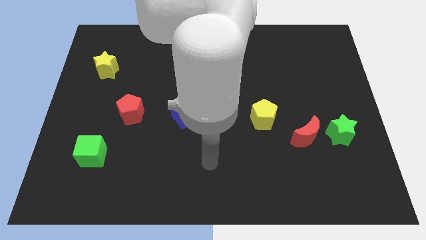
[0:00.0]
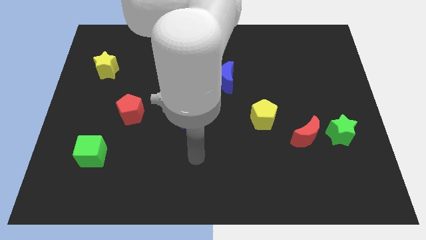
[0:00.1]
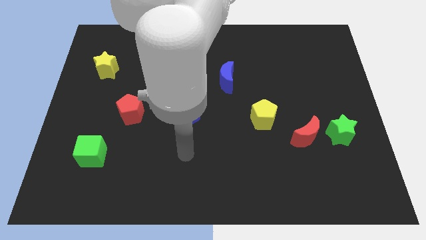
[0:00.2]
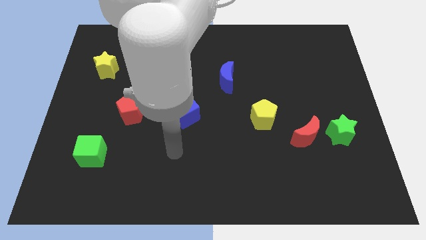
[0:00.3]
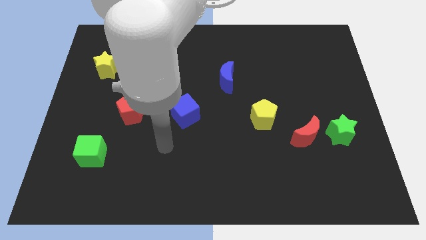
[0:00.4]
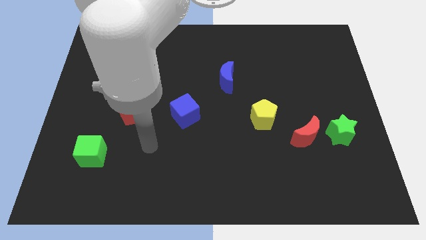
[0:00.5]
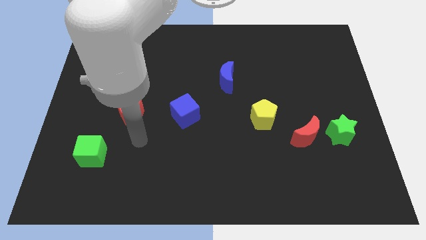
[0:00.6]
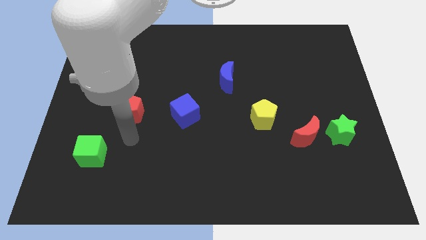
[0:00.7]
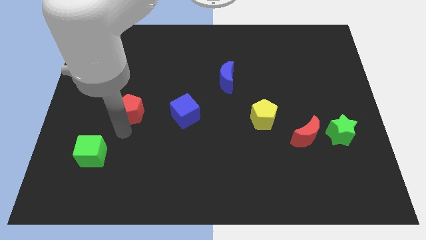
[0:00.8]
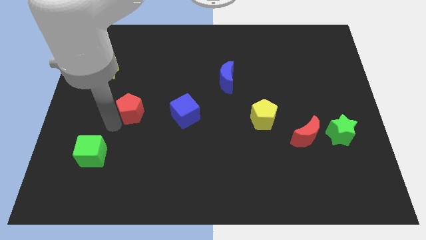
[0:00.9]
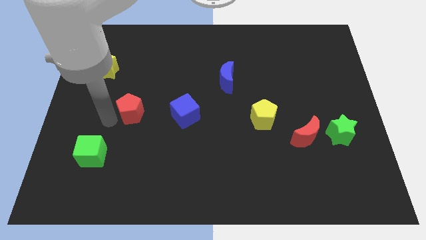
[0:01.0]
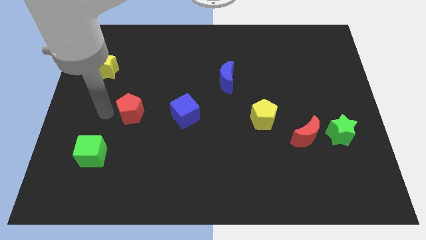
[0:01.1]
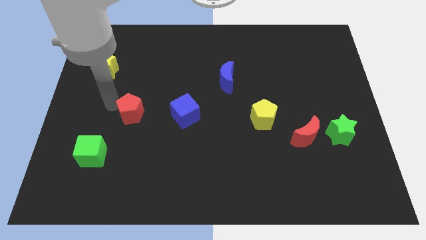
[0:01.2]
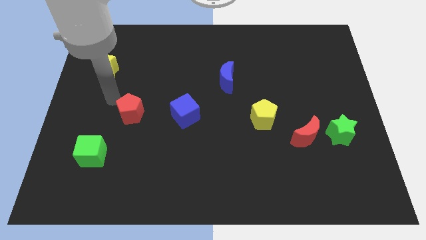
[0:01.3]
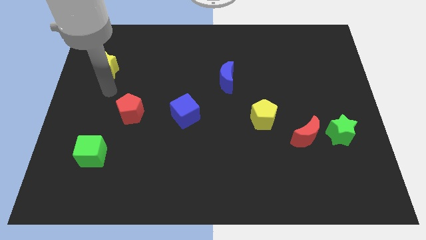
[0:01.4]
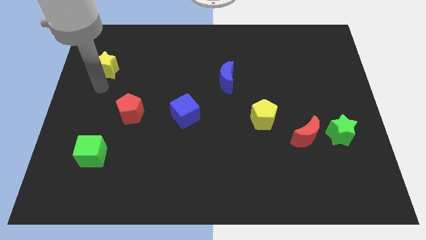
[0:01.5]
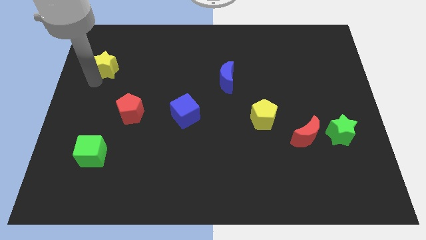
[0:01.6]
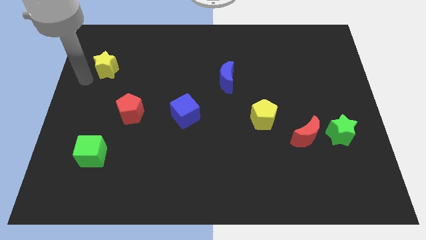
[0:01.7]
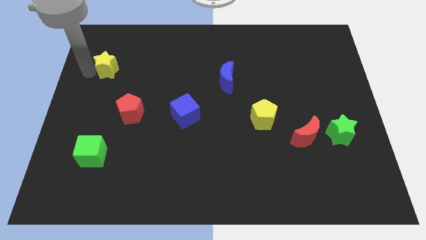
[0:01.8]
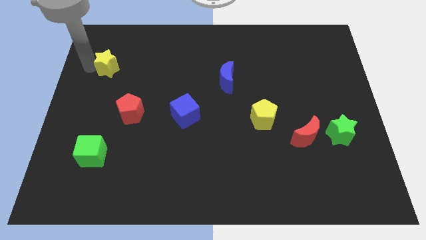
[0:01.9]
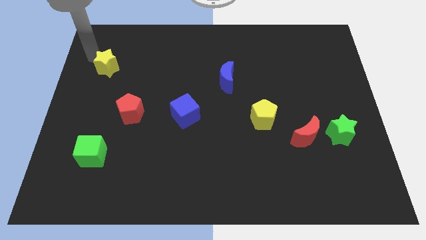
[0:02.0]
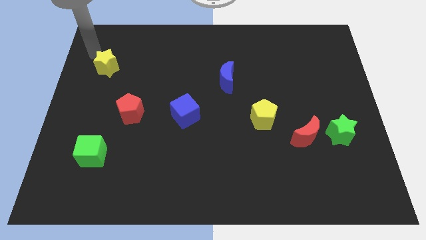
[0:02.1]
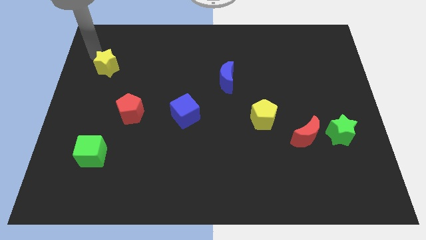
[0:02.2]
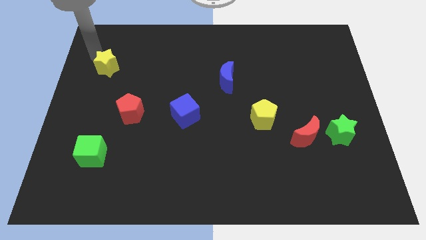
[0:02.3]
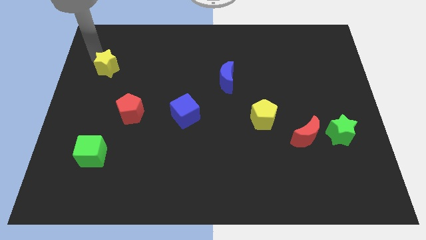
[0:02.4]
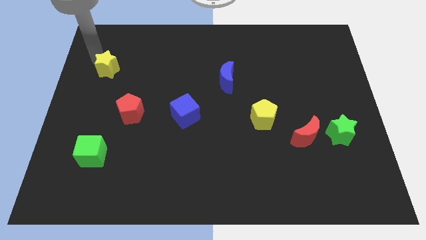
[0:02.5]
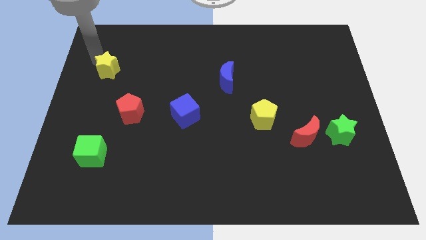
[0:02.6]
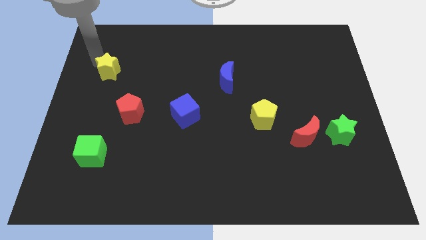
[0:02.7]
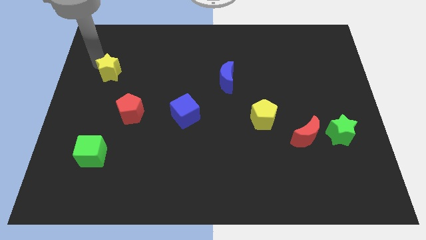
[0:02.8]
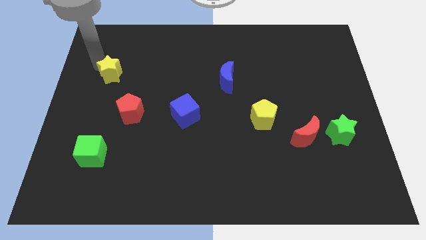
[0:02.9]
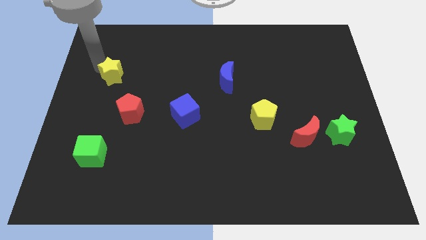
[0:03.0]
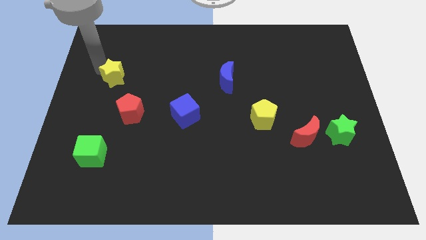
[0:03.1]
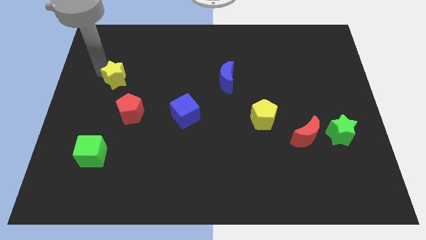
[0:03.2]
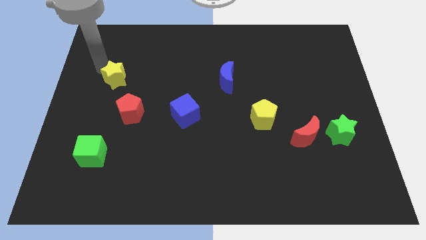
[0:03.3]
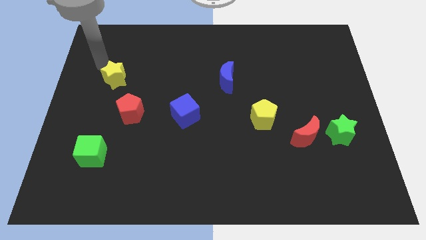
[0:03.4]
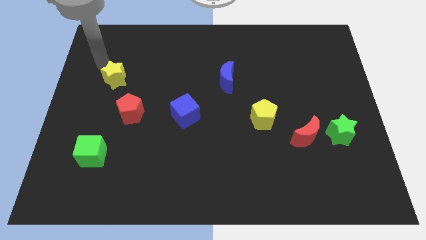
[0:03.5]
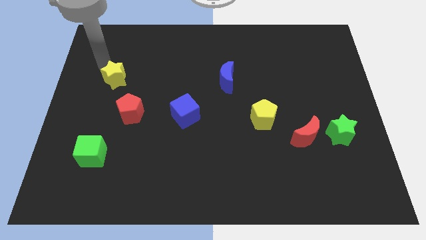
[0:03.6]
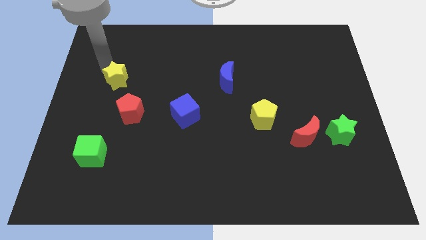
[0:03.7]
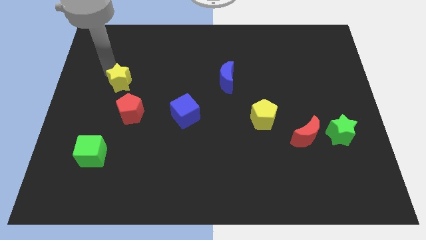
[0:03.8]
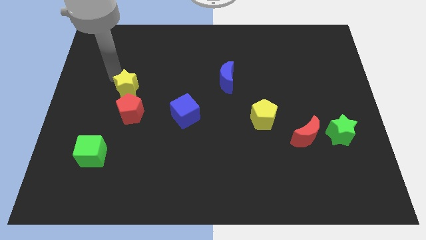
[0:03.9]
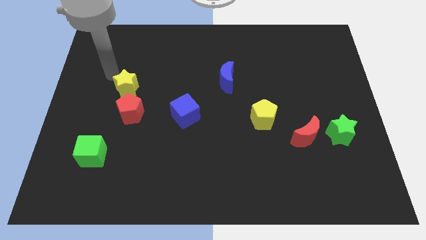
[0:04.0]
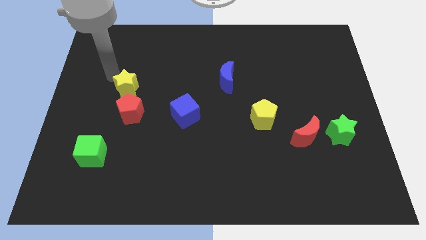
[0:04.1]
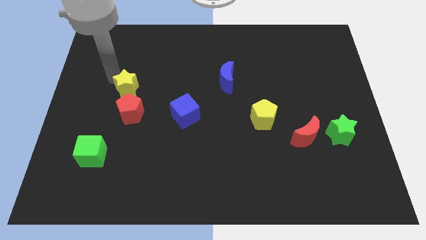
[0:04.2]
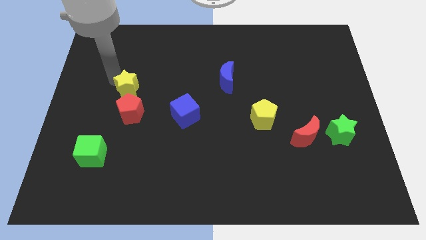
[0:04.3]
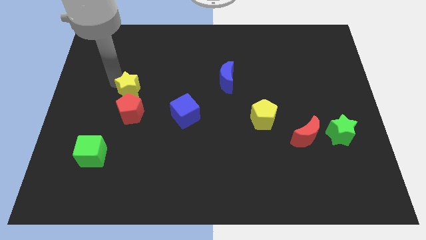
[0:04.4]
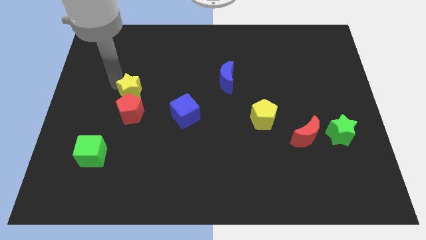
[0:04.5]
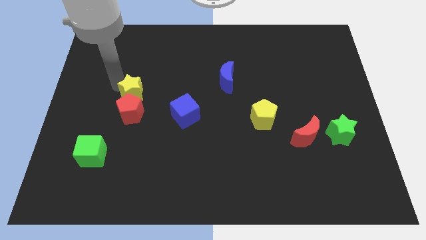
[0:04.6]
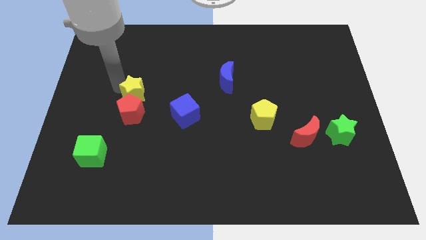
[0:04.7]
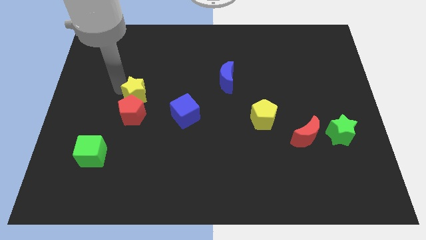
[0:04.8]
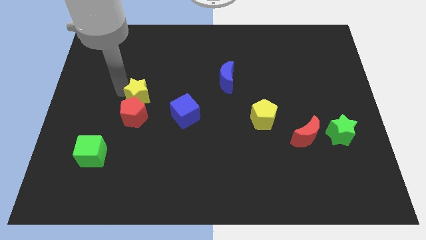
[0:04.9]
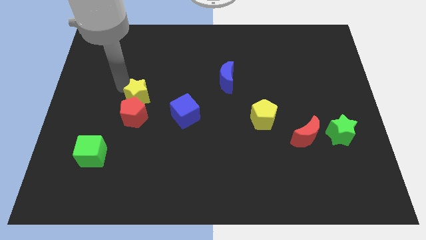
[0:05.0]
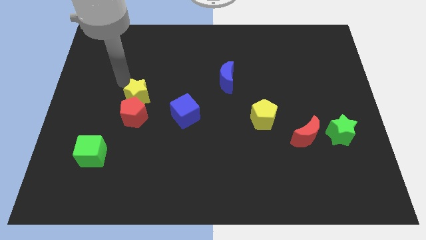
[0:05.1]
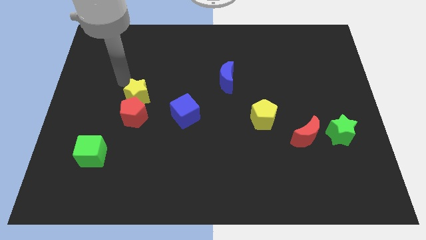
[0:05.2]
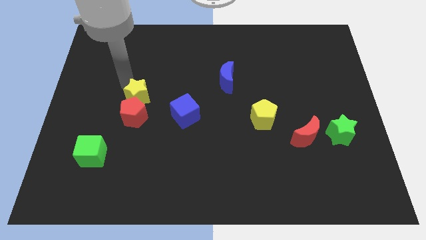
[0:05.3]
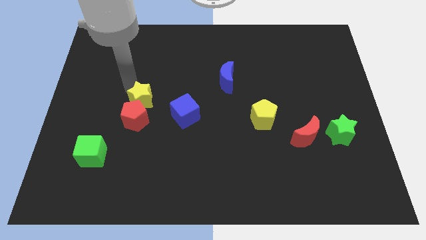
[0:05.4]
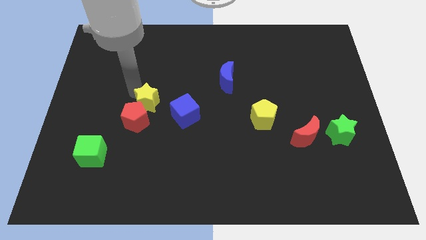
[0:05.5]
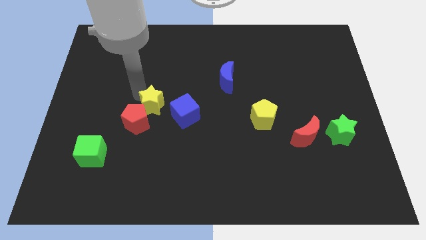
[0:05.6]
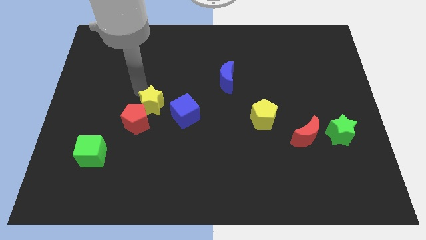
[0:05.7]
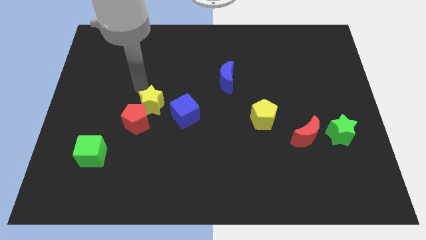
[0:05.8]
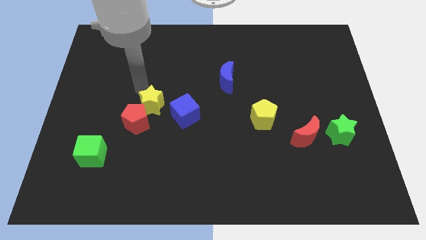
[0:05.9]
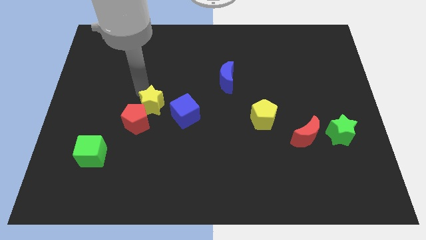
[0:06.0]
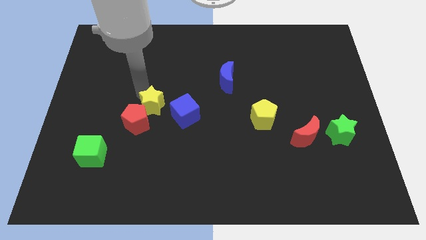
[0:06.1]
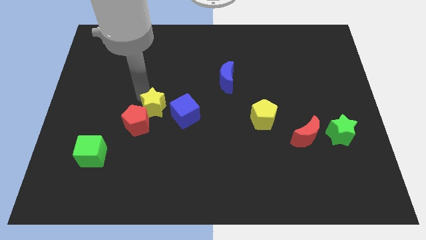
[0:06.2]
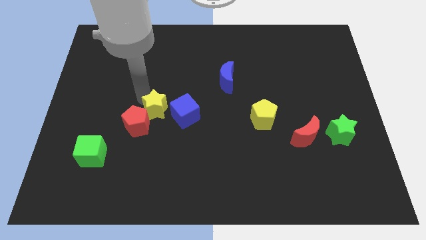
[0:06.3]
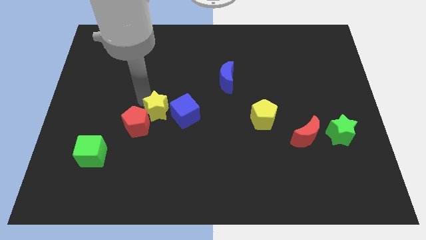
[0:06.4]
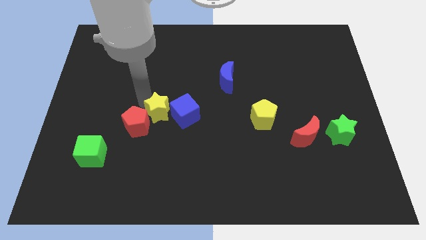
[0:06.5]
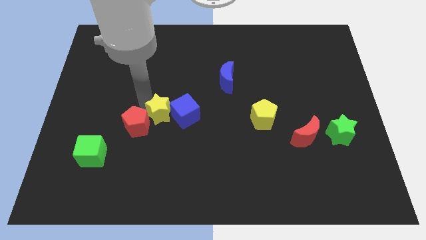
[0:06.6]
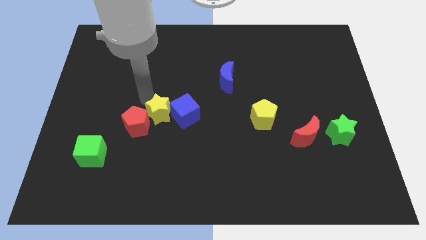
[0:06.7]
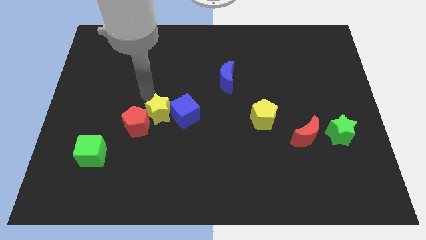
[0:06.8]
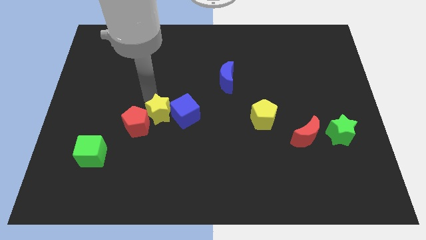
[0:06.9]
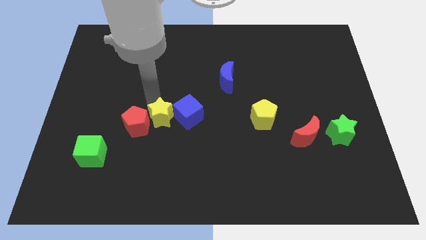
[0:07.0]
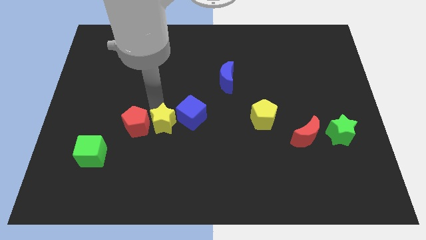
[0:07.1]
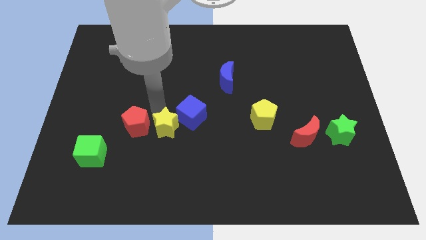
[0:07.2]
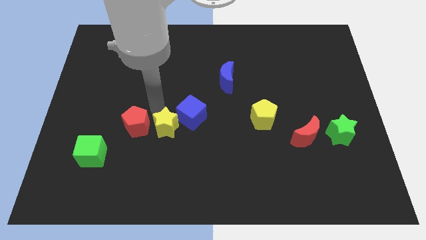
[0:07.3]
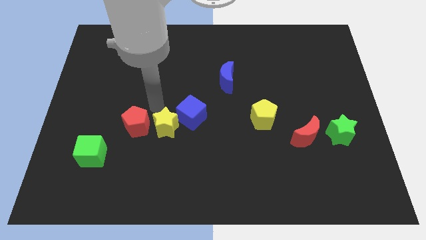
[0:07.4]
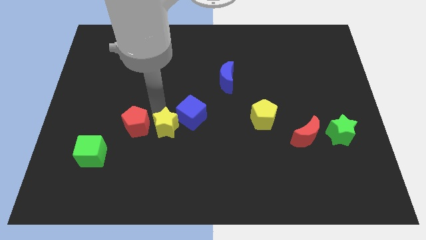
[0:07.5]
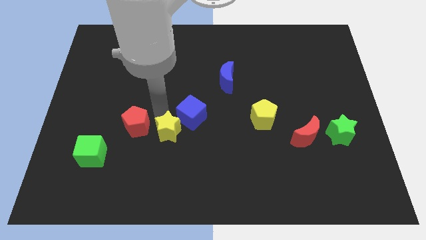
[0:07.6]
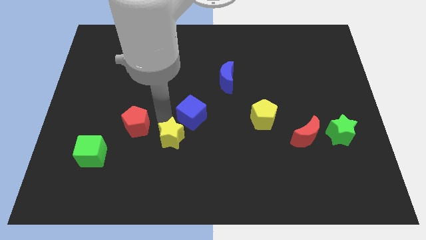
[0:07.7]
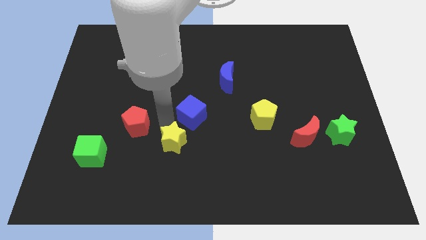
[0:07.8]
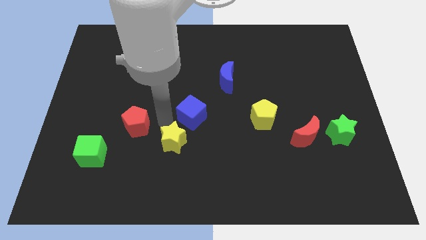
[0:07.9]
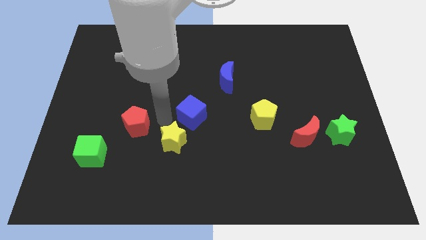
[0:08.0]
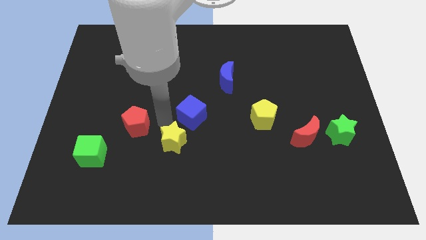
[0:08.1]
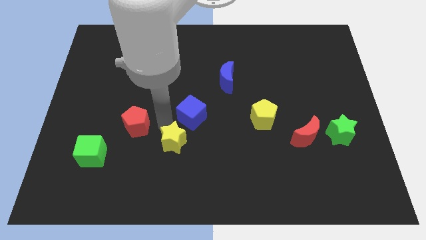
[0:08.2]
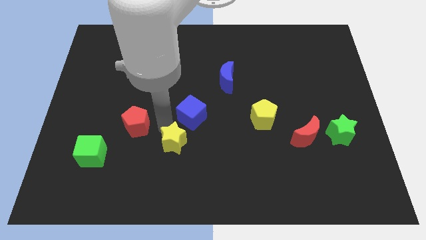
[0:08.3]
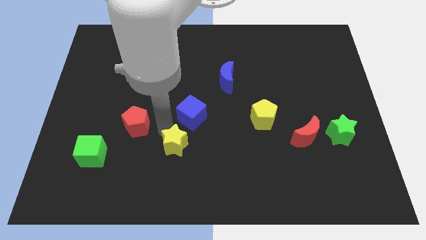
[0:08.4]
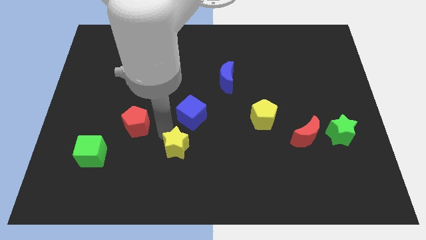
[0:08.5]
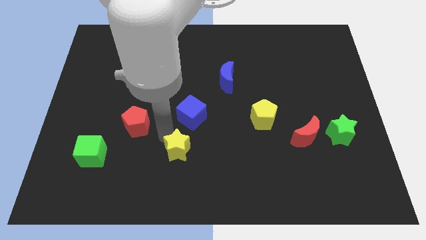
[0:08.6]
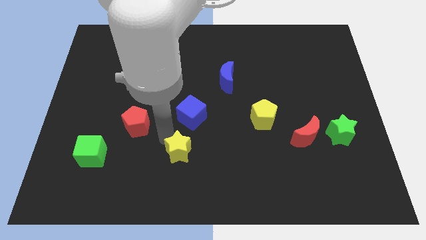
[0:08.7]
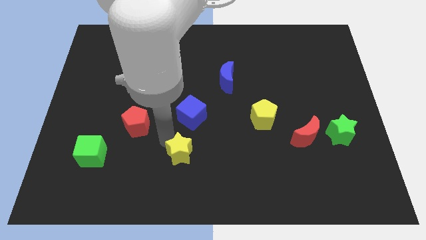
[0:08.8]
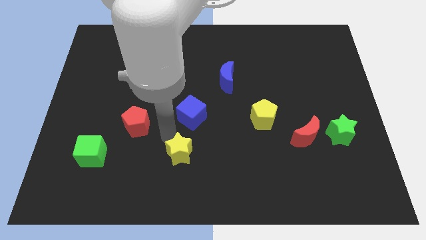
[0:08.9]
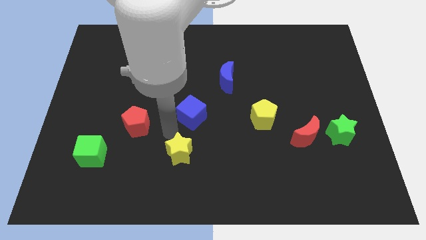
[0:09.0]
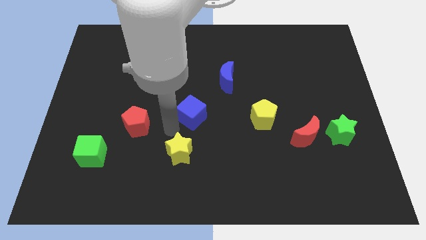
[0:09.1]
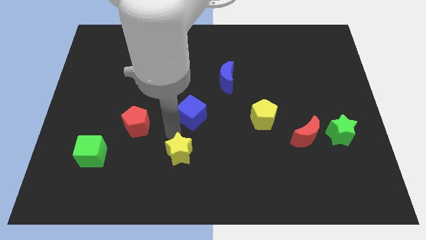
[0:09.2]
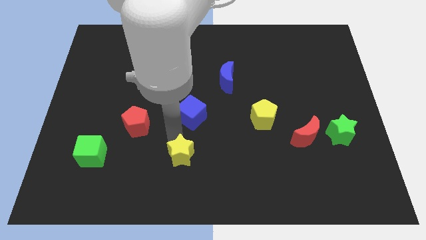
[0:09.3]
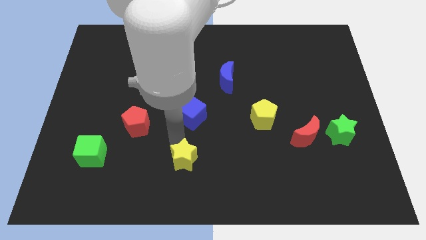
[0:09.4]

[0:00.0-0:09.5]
push the yellow star to the bottom side
